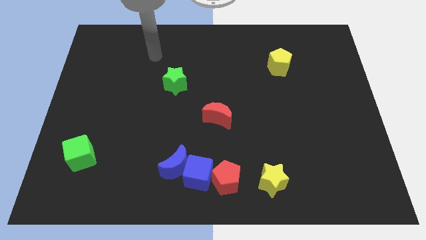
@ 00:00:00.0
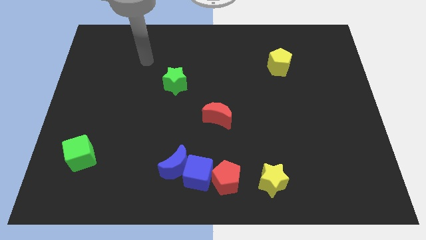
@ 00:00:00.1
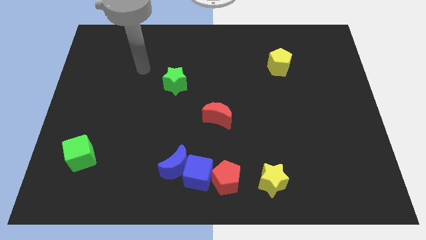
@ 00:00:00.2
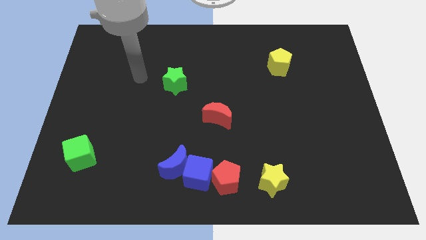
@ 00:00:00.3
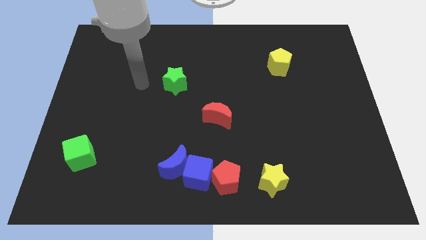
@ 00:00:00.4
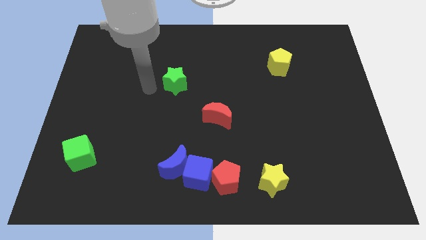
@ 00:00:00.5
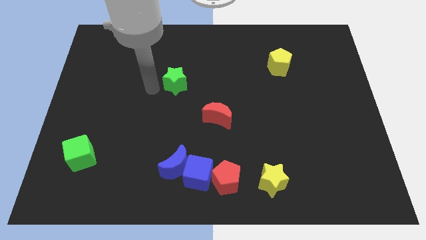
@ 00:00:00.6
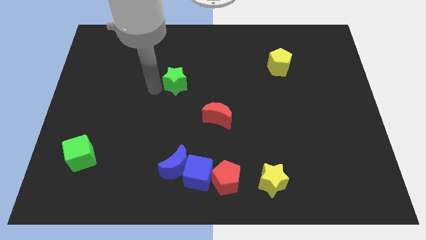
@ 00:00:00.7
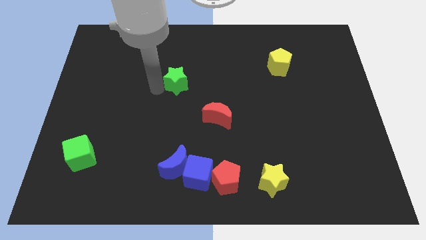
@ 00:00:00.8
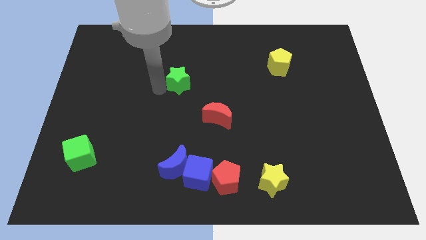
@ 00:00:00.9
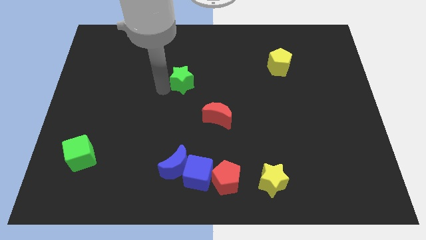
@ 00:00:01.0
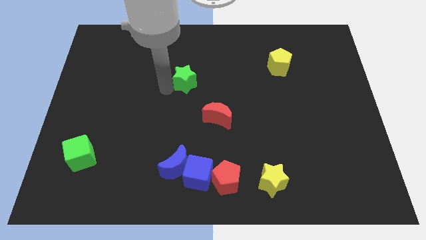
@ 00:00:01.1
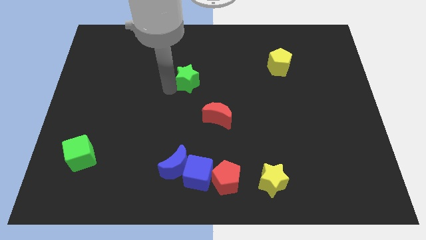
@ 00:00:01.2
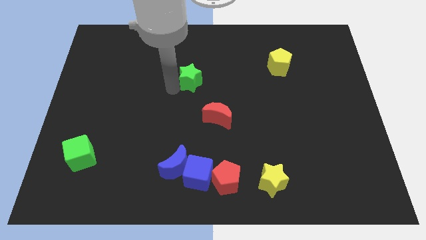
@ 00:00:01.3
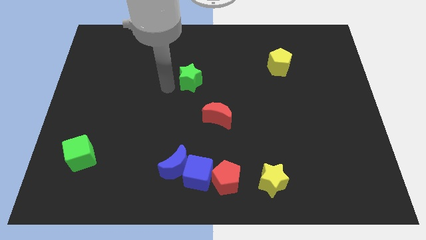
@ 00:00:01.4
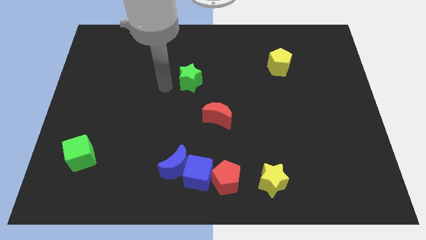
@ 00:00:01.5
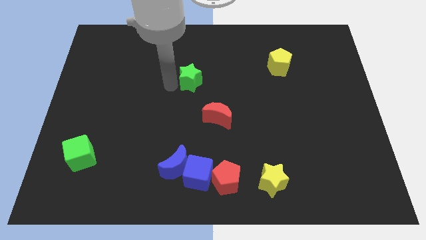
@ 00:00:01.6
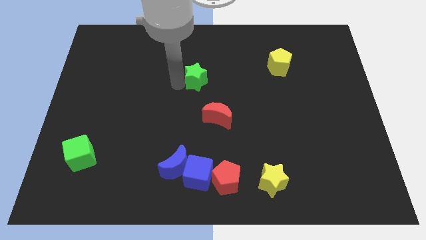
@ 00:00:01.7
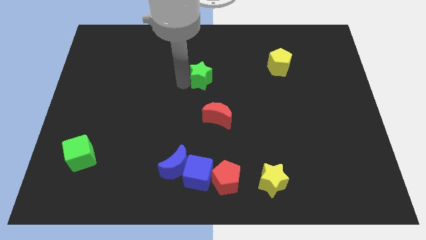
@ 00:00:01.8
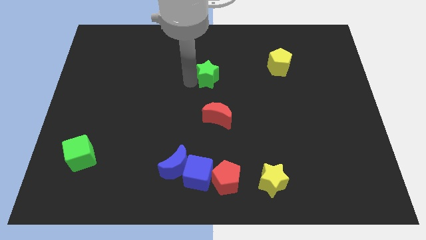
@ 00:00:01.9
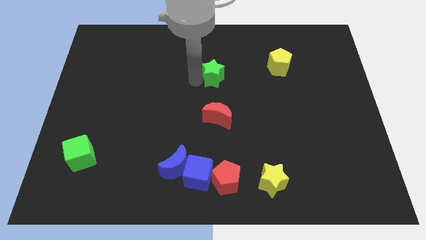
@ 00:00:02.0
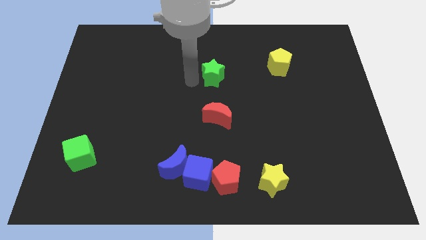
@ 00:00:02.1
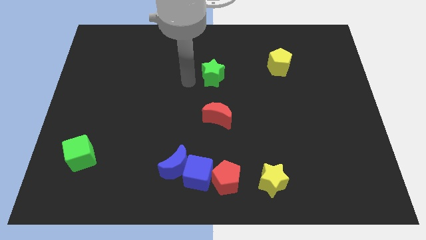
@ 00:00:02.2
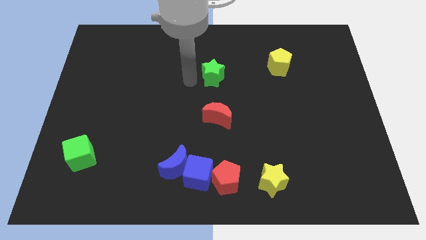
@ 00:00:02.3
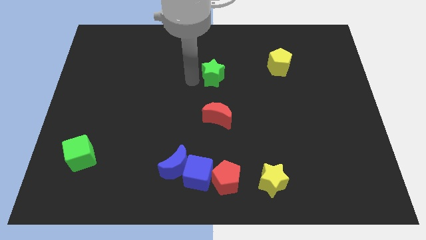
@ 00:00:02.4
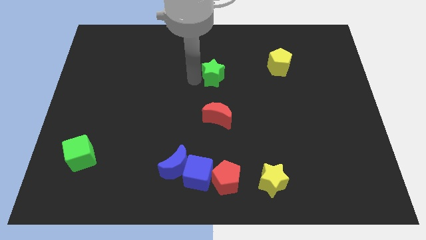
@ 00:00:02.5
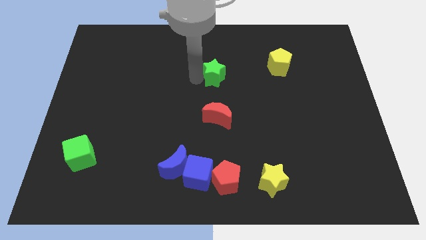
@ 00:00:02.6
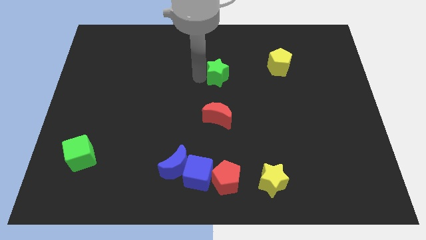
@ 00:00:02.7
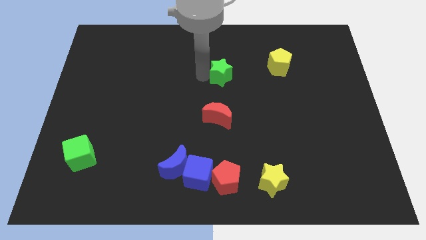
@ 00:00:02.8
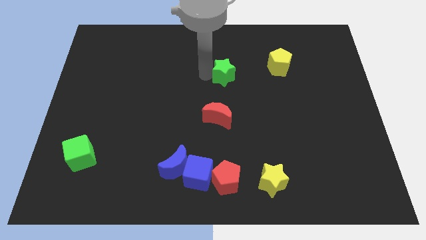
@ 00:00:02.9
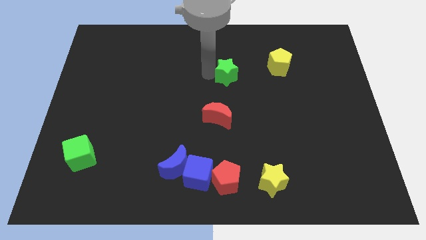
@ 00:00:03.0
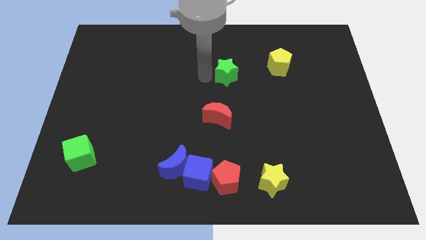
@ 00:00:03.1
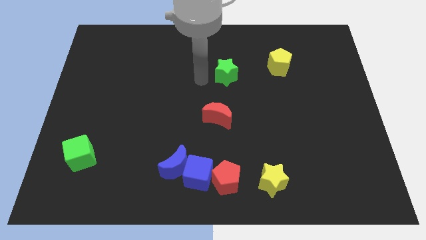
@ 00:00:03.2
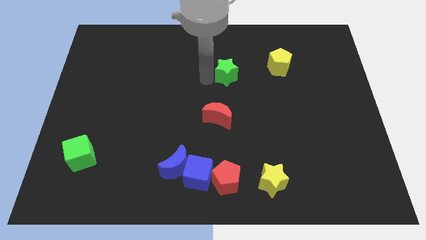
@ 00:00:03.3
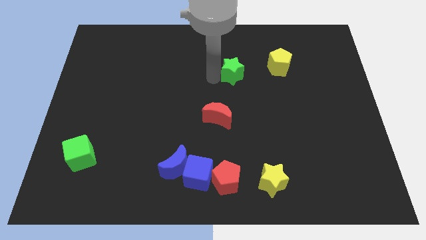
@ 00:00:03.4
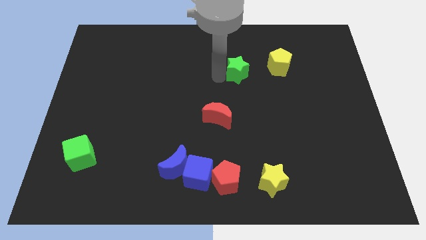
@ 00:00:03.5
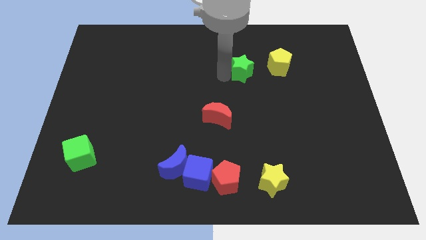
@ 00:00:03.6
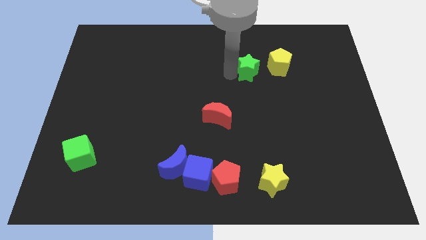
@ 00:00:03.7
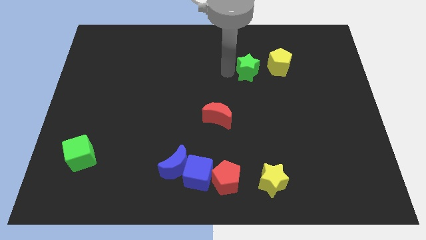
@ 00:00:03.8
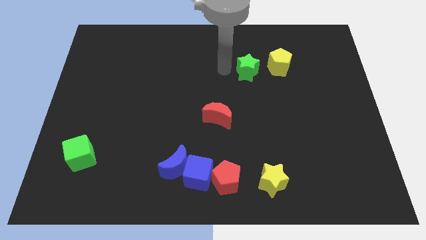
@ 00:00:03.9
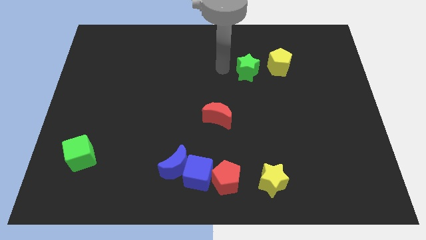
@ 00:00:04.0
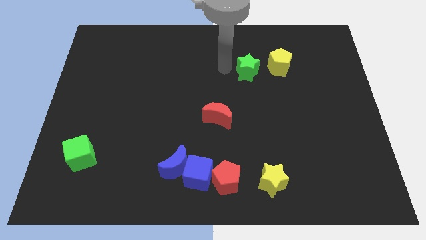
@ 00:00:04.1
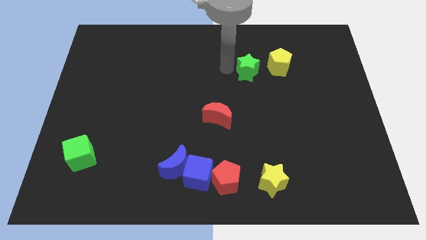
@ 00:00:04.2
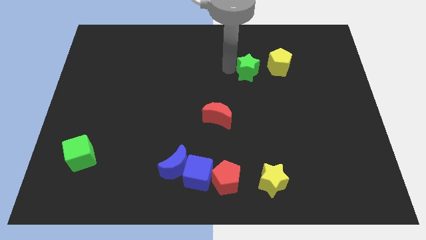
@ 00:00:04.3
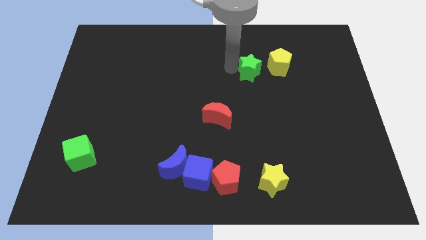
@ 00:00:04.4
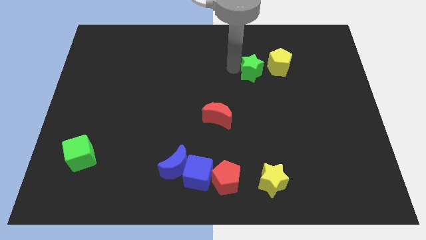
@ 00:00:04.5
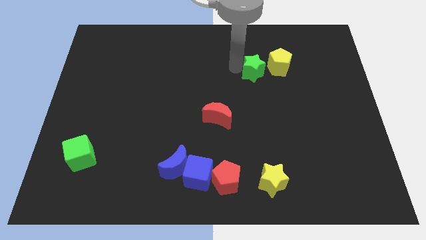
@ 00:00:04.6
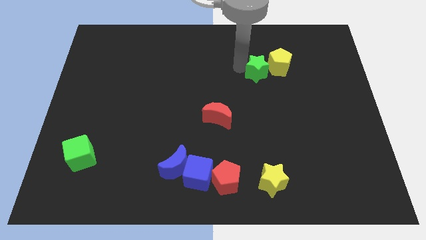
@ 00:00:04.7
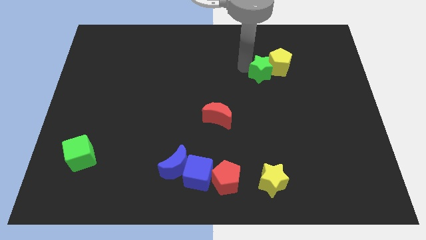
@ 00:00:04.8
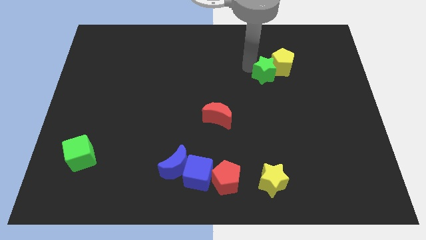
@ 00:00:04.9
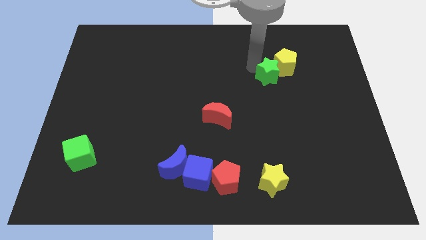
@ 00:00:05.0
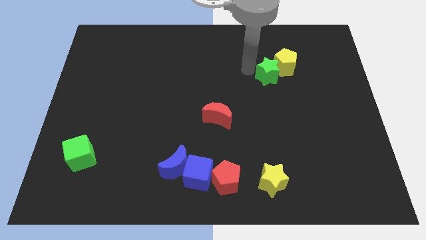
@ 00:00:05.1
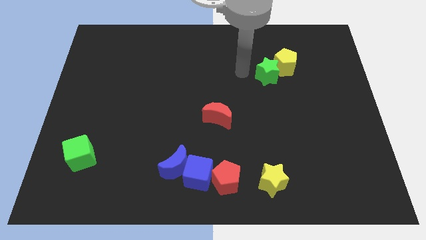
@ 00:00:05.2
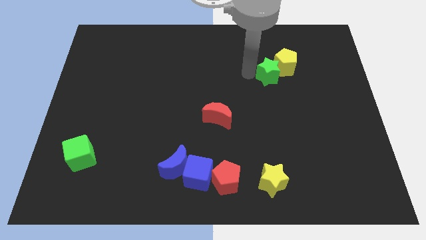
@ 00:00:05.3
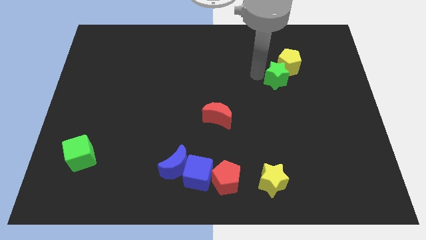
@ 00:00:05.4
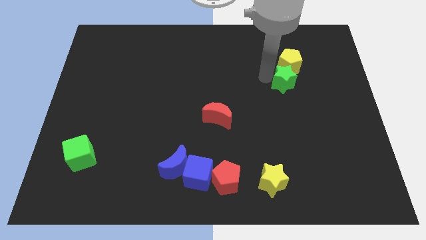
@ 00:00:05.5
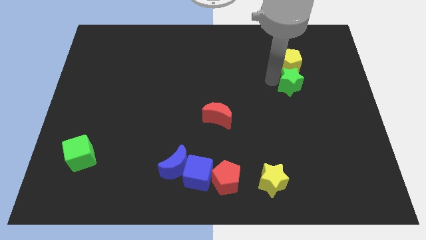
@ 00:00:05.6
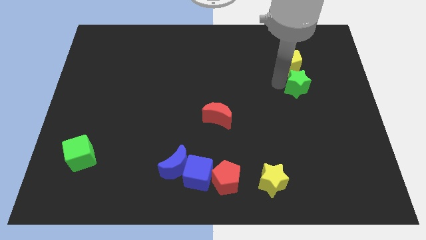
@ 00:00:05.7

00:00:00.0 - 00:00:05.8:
slide the green star to the bottom right side of the yellow pentagon

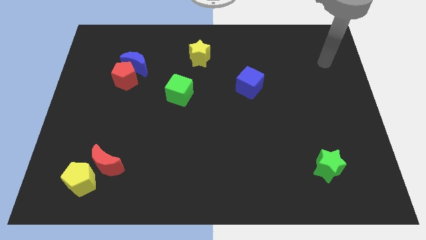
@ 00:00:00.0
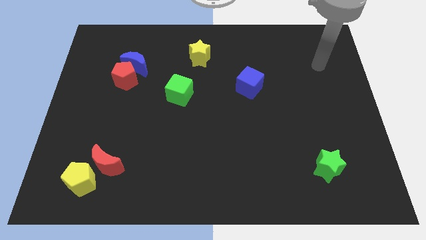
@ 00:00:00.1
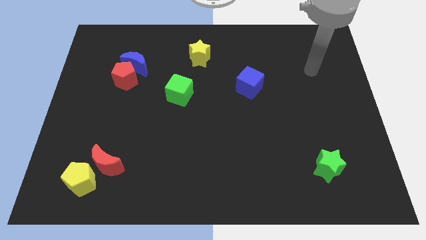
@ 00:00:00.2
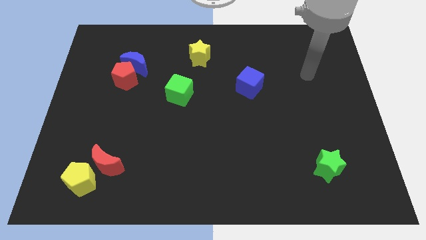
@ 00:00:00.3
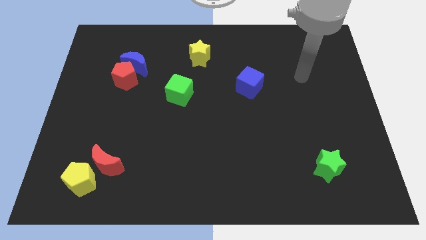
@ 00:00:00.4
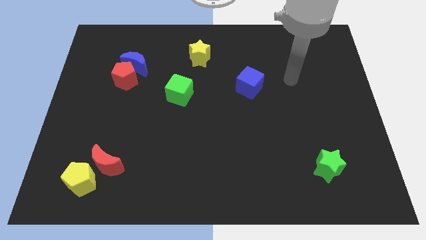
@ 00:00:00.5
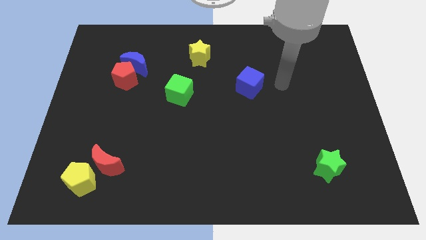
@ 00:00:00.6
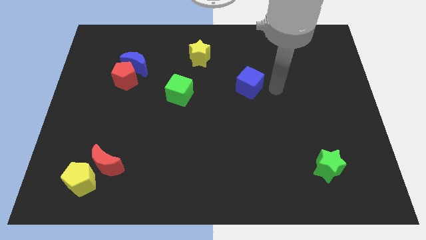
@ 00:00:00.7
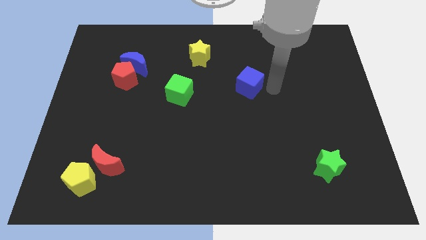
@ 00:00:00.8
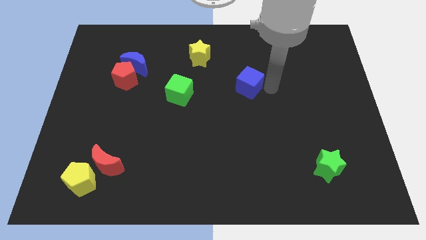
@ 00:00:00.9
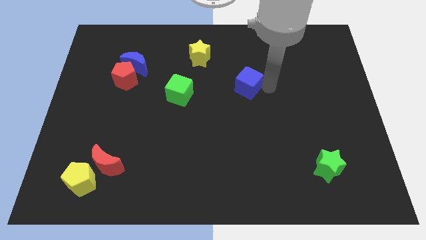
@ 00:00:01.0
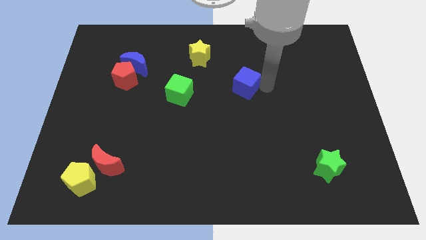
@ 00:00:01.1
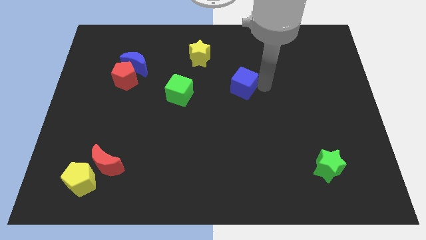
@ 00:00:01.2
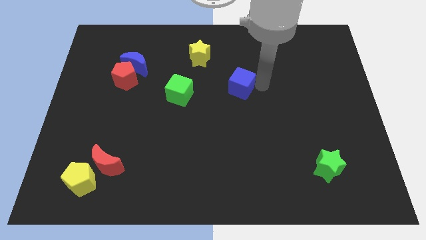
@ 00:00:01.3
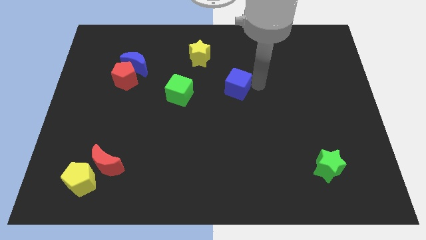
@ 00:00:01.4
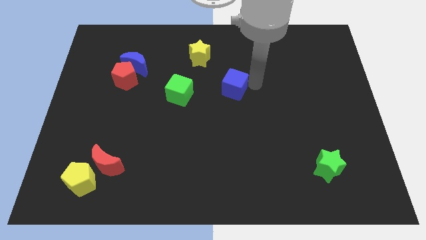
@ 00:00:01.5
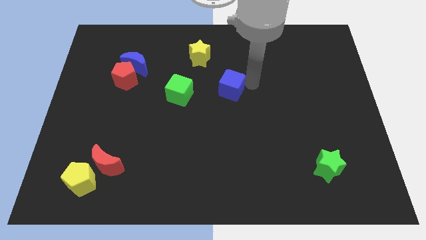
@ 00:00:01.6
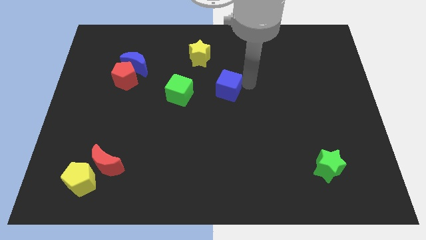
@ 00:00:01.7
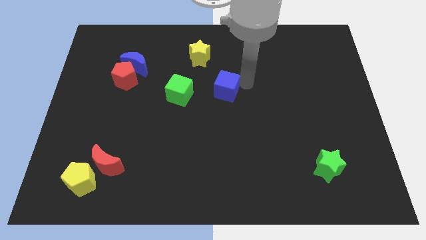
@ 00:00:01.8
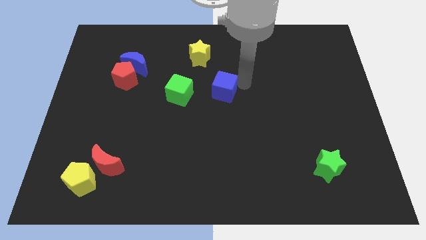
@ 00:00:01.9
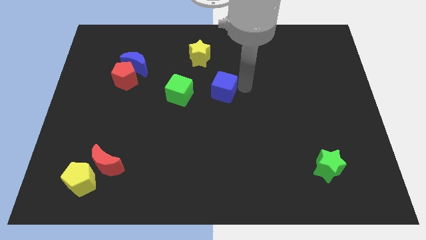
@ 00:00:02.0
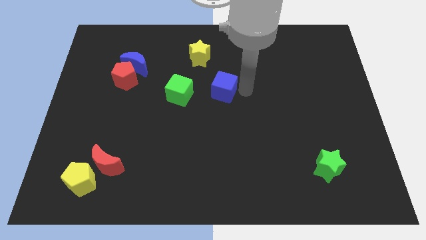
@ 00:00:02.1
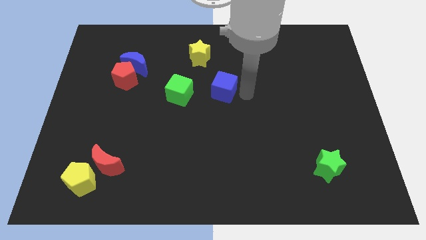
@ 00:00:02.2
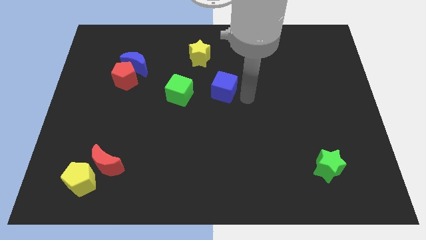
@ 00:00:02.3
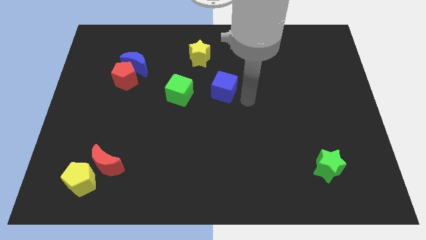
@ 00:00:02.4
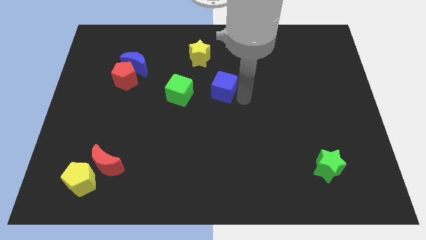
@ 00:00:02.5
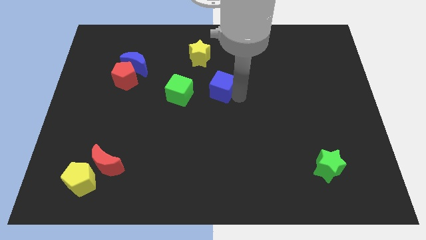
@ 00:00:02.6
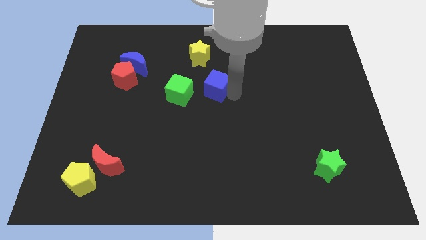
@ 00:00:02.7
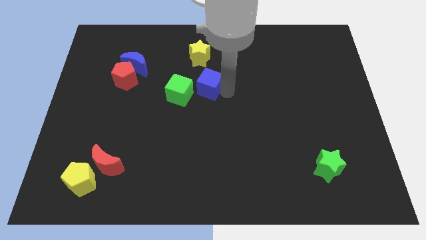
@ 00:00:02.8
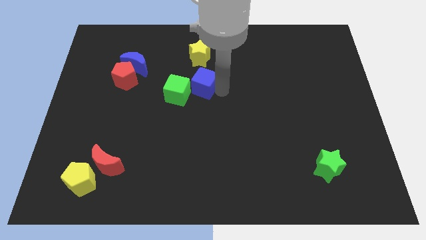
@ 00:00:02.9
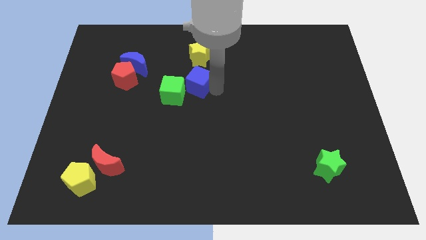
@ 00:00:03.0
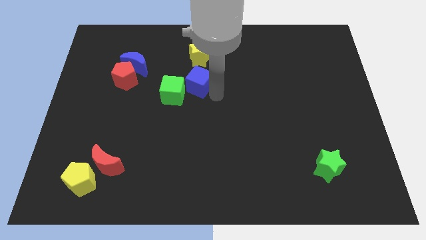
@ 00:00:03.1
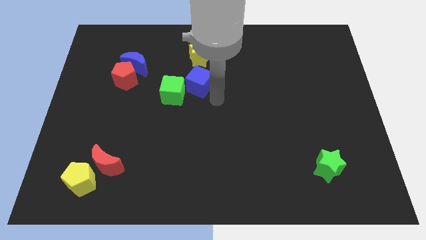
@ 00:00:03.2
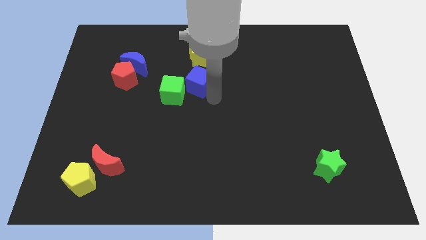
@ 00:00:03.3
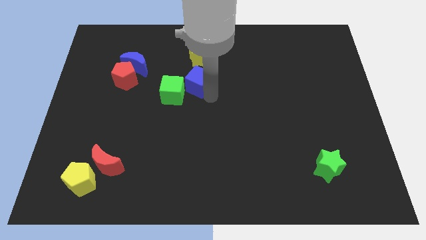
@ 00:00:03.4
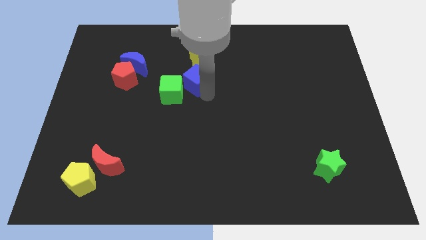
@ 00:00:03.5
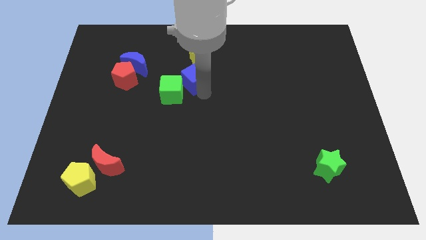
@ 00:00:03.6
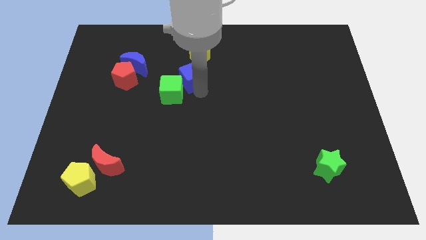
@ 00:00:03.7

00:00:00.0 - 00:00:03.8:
move the blue cube to the top side of the green cube
